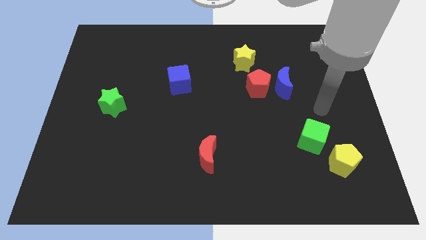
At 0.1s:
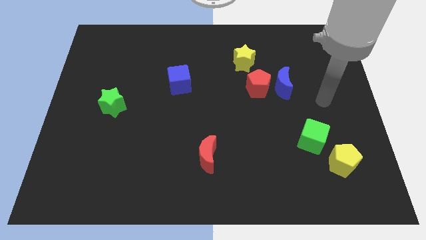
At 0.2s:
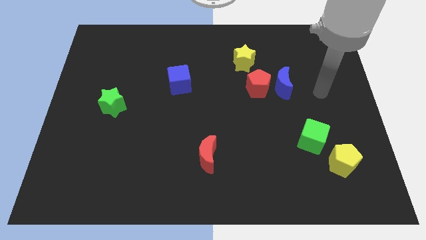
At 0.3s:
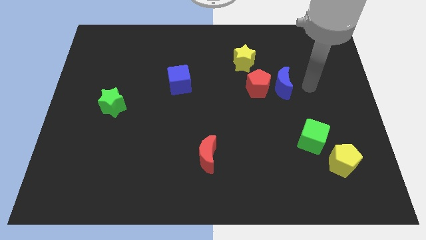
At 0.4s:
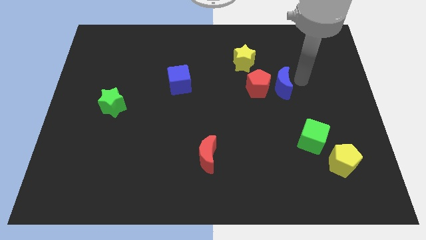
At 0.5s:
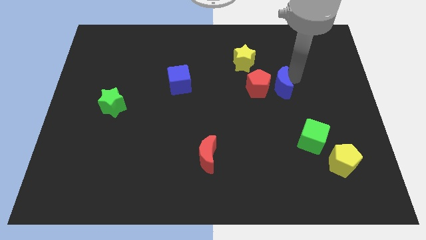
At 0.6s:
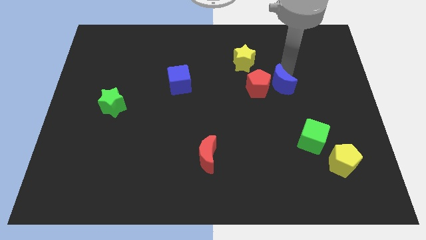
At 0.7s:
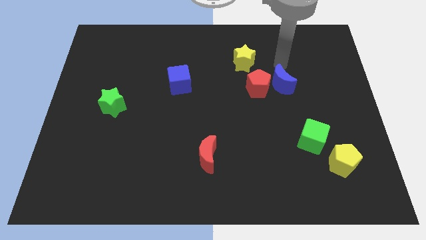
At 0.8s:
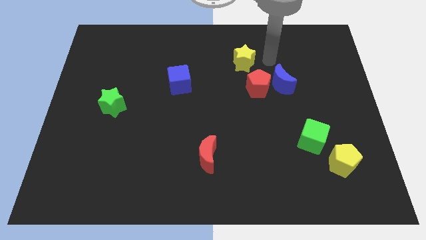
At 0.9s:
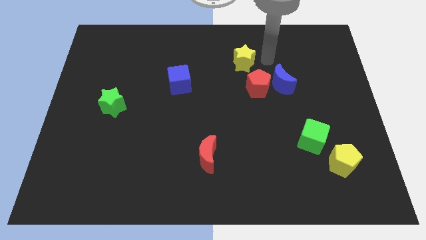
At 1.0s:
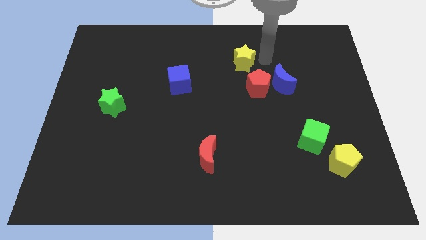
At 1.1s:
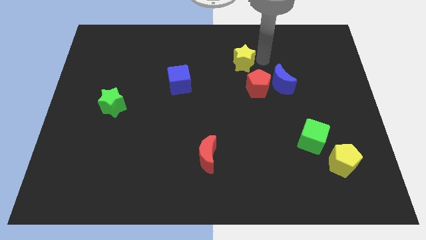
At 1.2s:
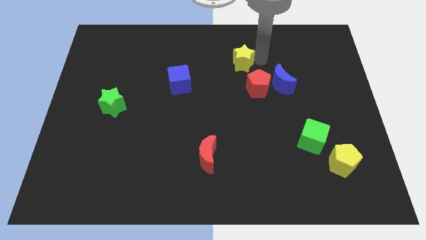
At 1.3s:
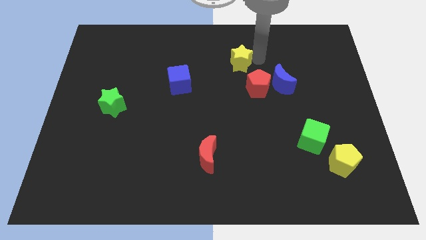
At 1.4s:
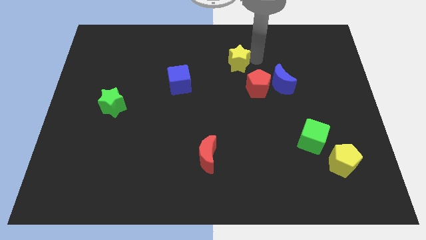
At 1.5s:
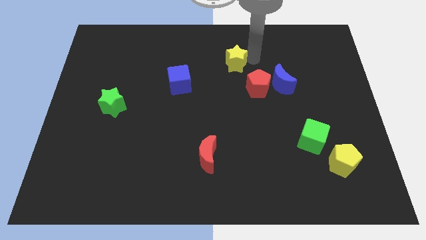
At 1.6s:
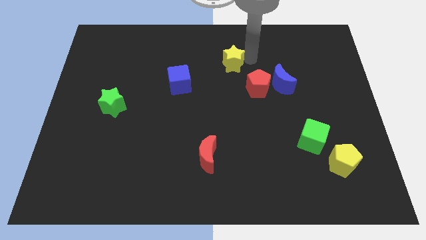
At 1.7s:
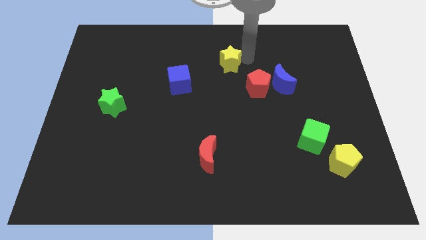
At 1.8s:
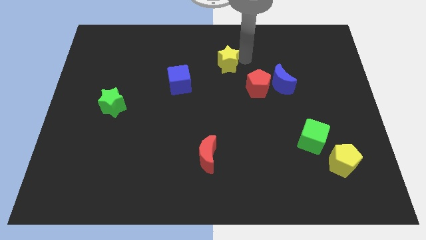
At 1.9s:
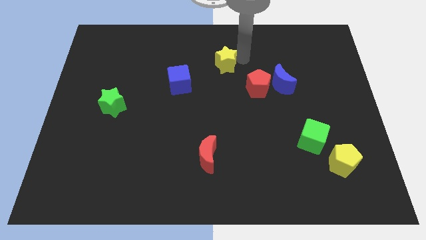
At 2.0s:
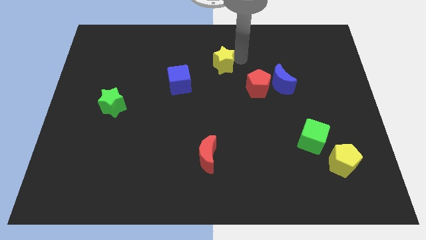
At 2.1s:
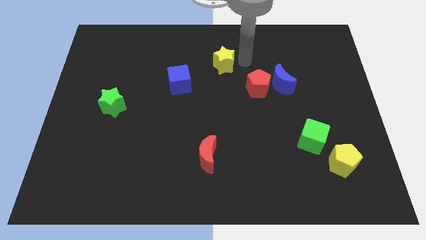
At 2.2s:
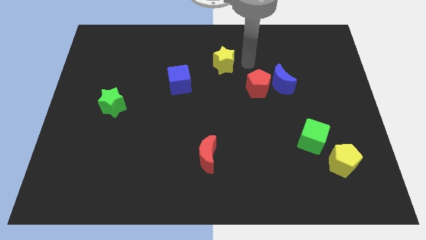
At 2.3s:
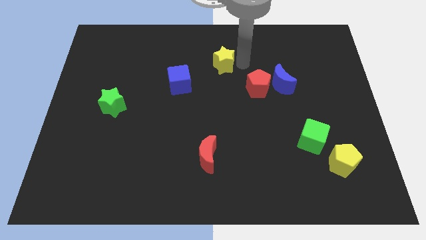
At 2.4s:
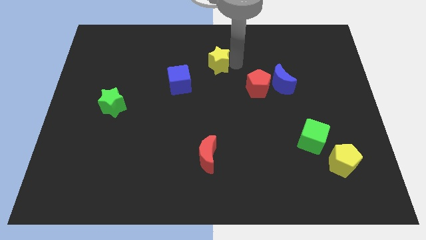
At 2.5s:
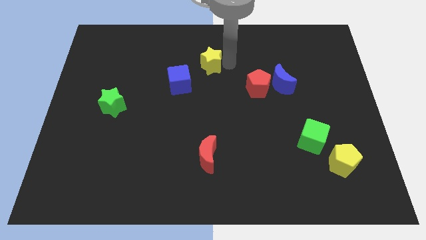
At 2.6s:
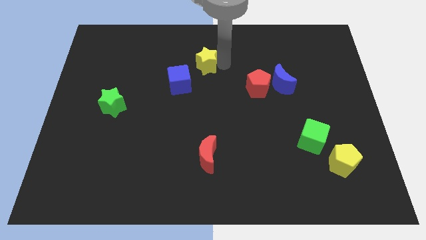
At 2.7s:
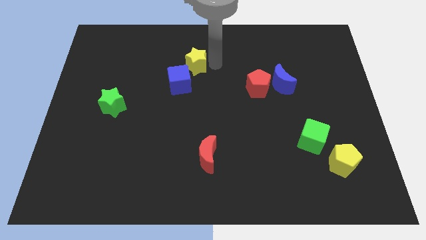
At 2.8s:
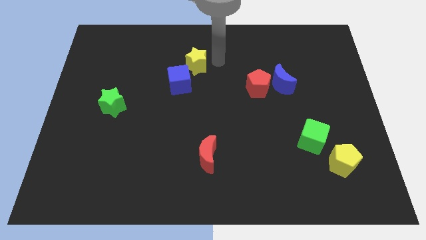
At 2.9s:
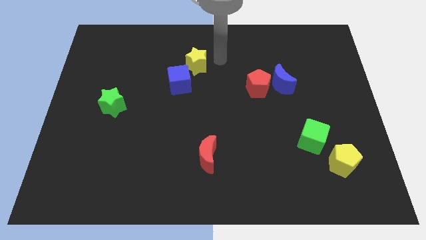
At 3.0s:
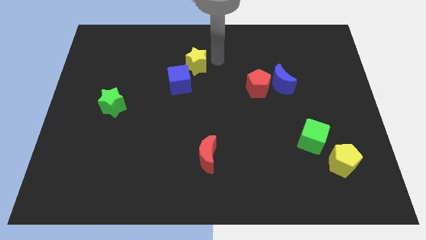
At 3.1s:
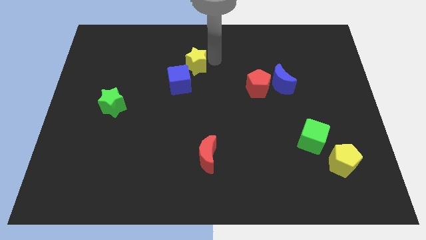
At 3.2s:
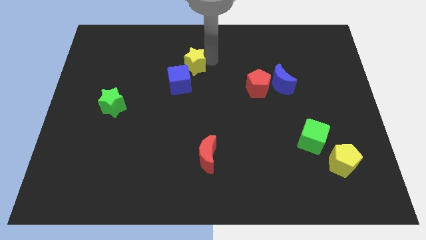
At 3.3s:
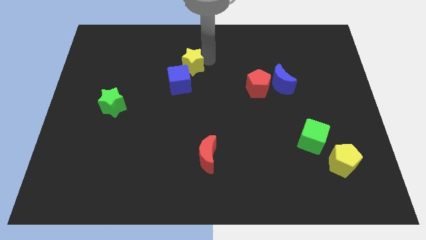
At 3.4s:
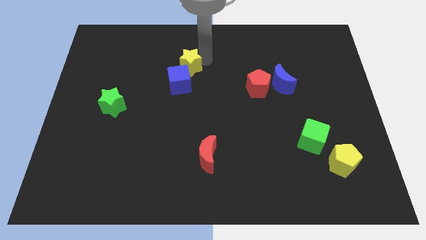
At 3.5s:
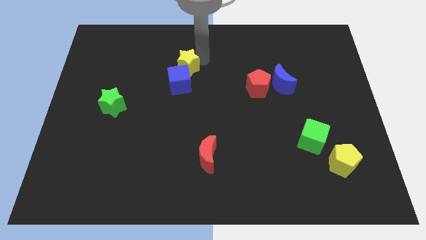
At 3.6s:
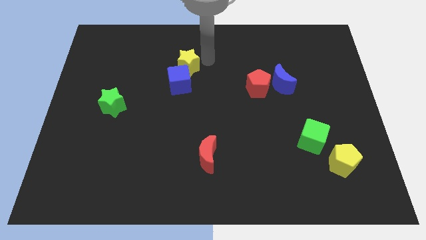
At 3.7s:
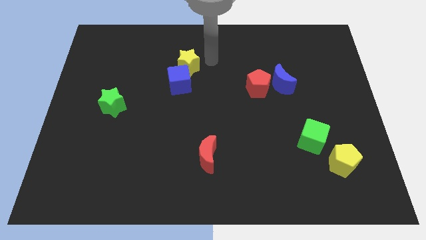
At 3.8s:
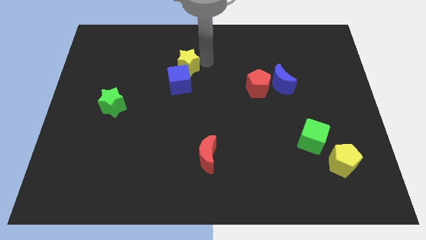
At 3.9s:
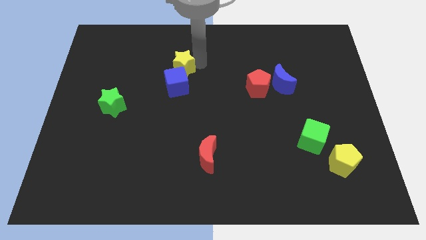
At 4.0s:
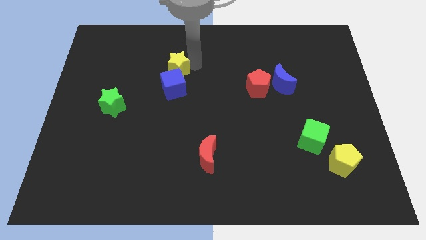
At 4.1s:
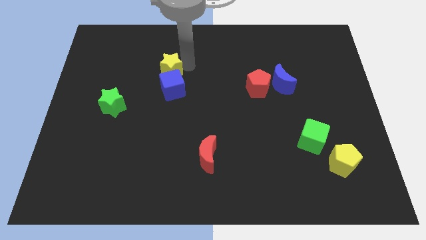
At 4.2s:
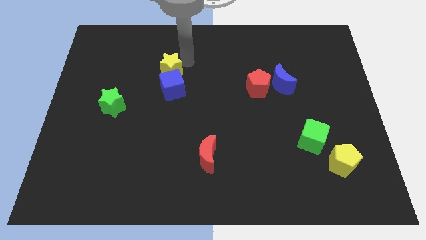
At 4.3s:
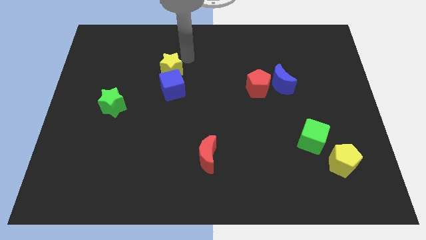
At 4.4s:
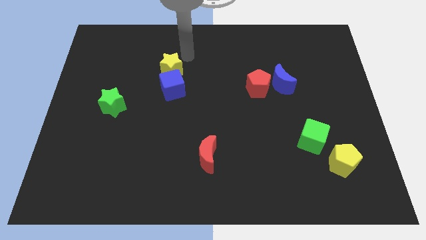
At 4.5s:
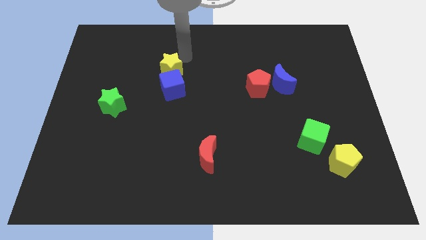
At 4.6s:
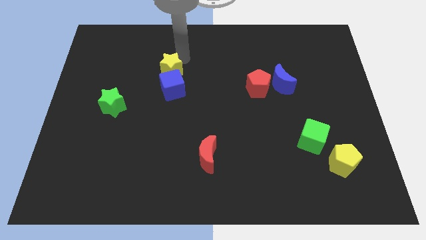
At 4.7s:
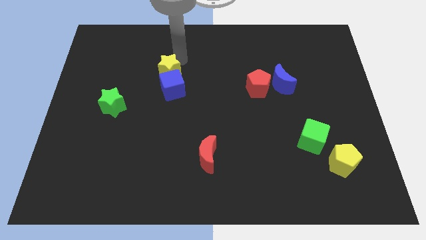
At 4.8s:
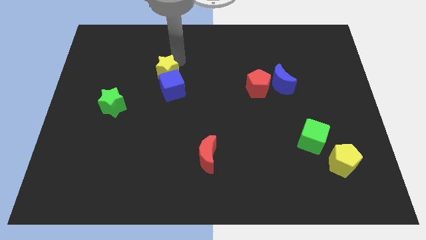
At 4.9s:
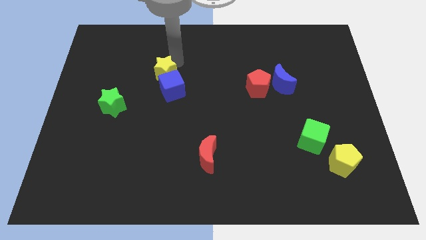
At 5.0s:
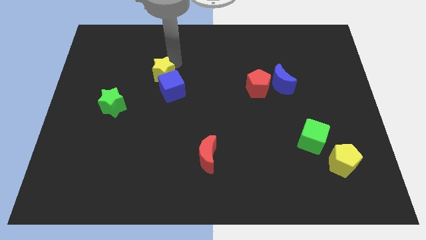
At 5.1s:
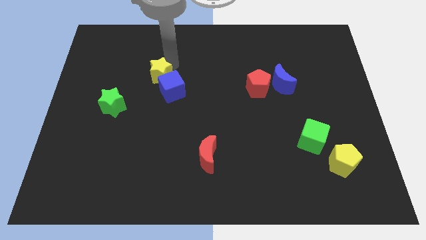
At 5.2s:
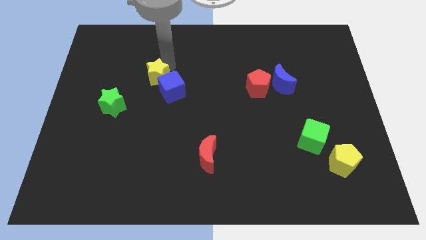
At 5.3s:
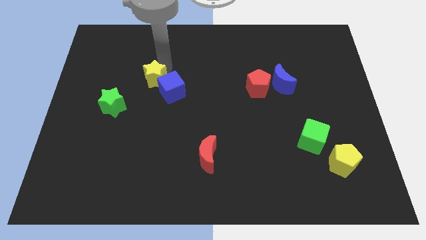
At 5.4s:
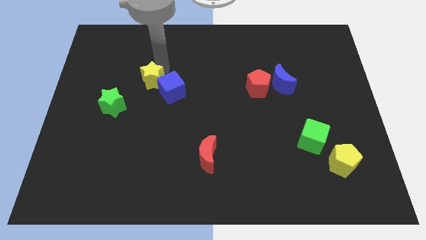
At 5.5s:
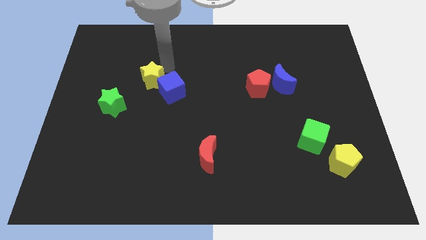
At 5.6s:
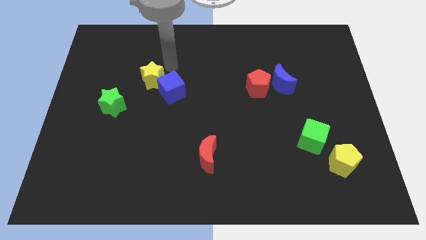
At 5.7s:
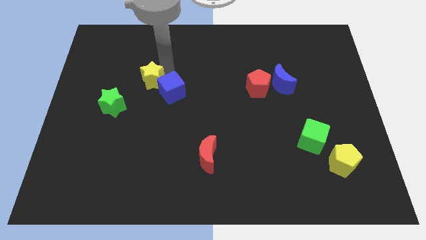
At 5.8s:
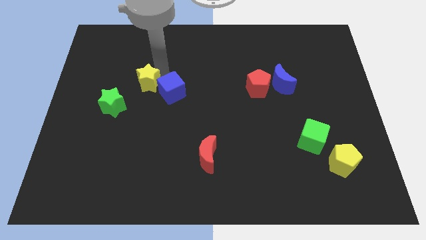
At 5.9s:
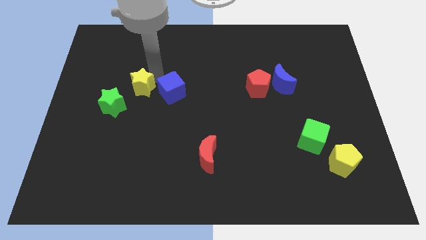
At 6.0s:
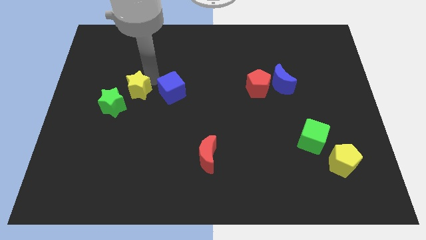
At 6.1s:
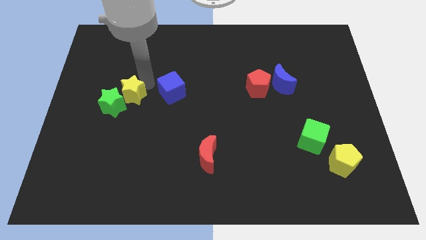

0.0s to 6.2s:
push the yellow star close to the green star

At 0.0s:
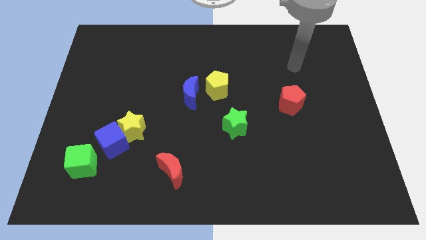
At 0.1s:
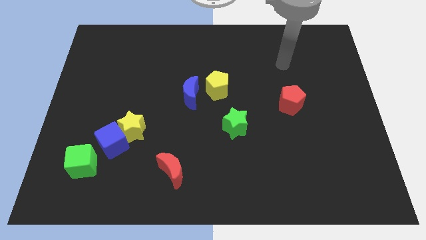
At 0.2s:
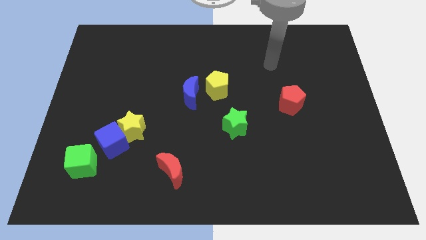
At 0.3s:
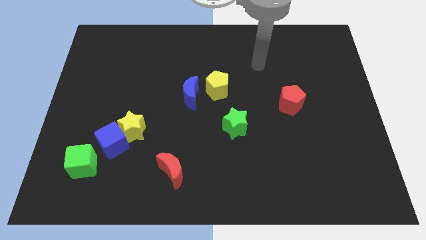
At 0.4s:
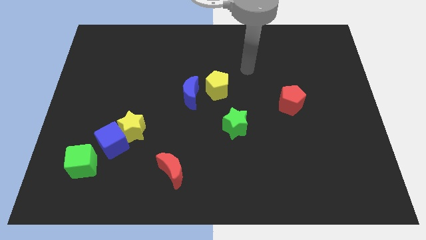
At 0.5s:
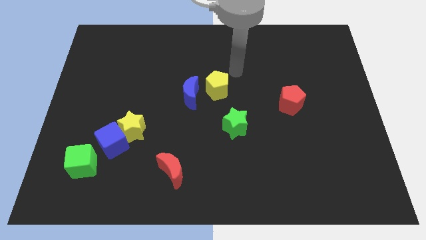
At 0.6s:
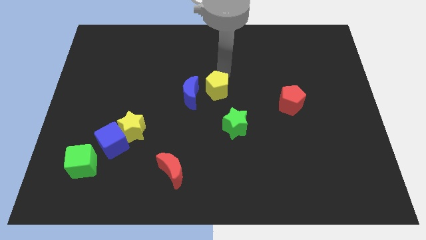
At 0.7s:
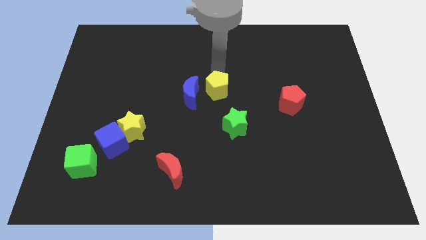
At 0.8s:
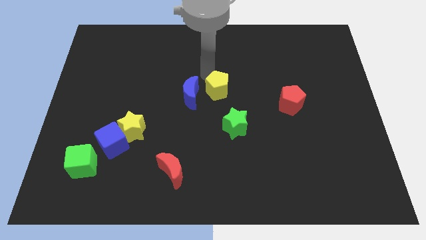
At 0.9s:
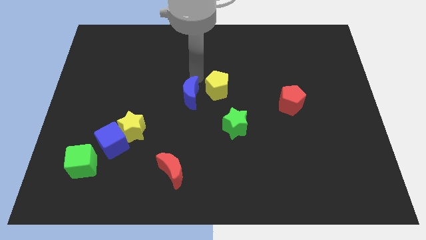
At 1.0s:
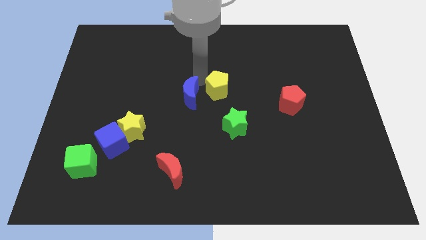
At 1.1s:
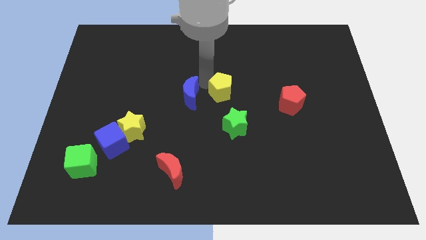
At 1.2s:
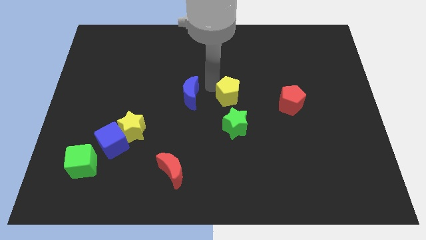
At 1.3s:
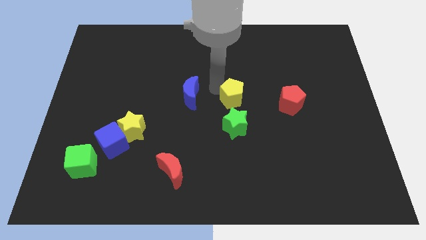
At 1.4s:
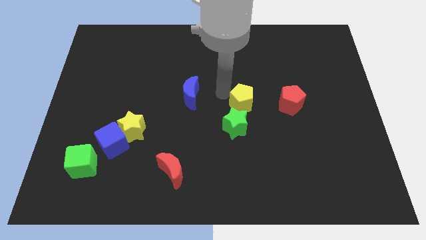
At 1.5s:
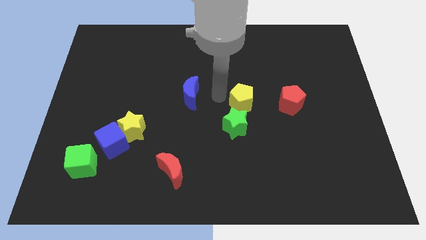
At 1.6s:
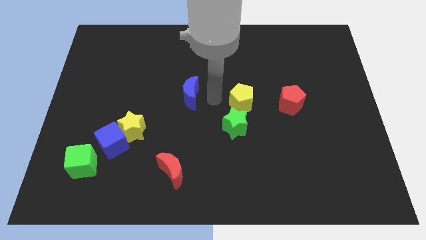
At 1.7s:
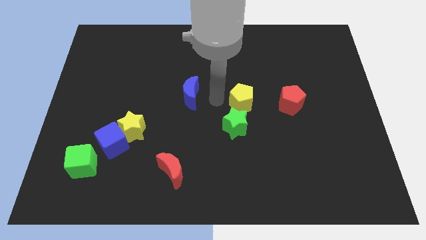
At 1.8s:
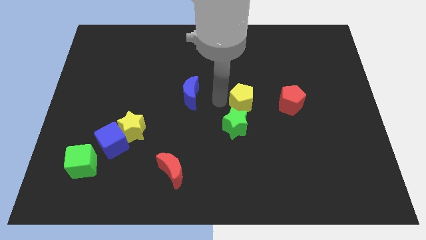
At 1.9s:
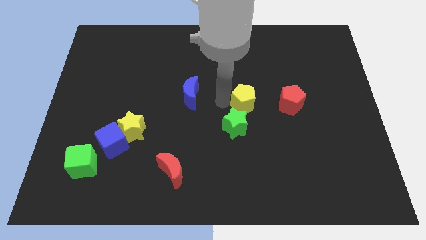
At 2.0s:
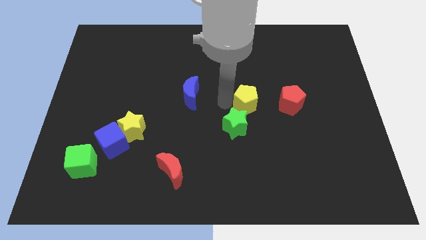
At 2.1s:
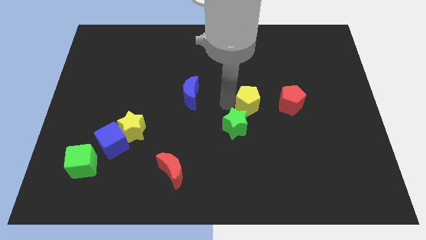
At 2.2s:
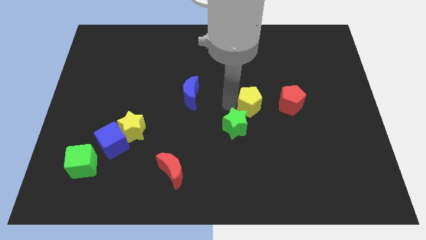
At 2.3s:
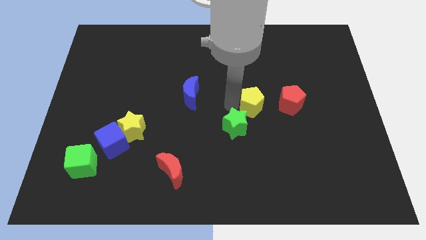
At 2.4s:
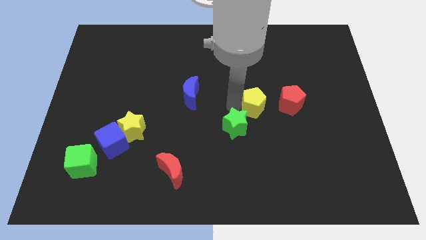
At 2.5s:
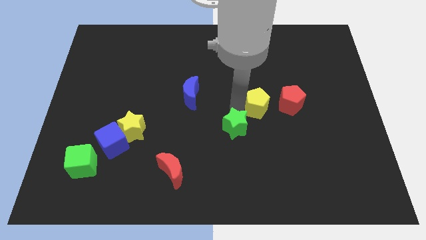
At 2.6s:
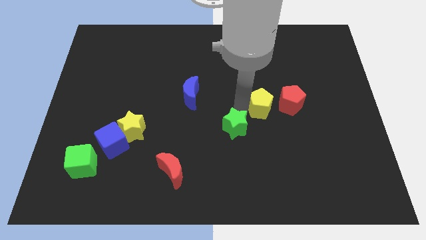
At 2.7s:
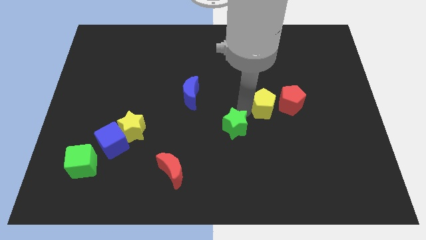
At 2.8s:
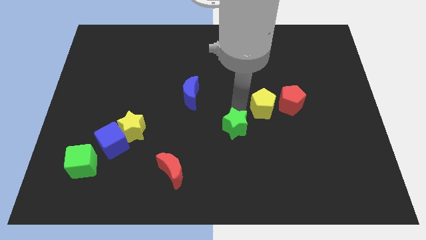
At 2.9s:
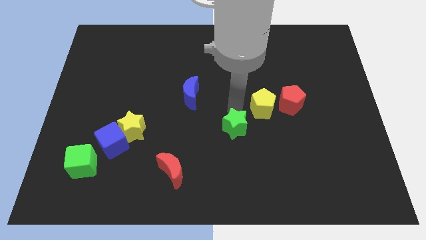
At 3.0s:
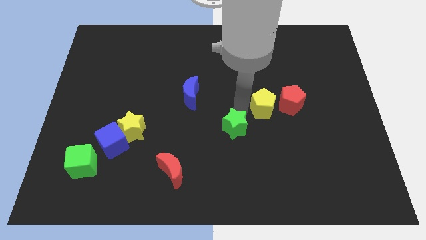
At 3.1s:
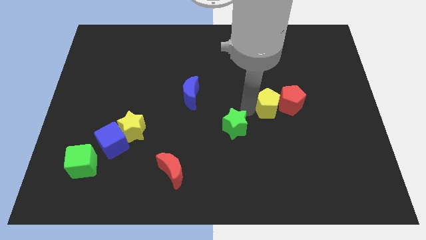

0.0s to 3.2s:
move the yellow pentagon to the red pentagon
